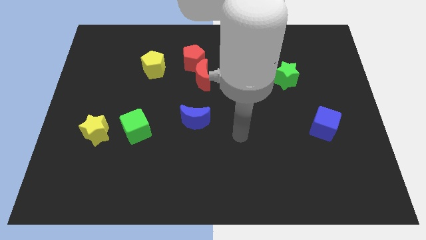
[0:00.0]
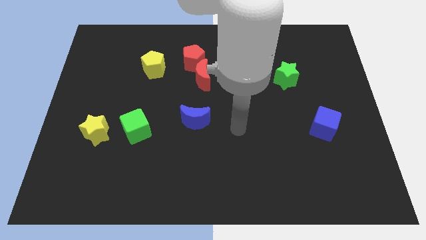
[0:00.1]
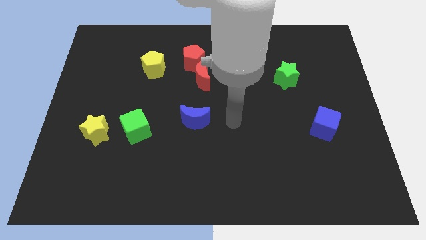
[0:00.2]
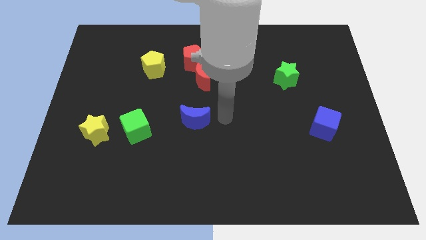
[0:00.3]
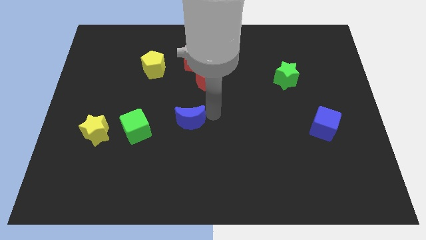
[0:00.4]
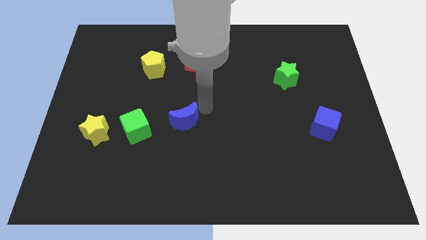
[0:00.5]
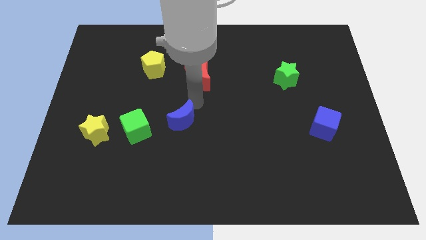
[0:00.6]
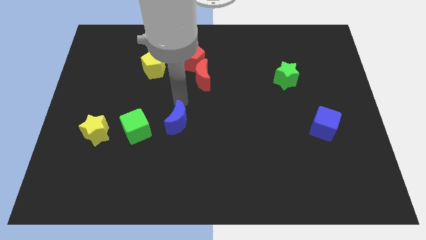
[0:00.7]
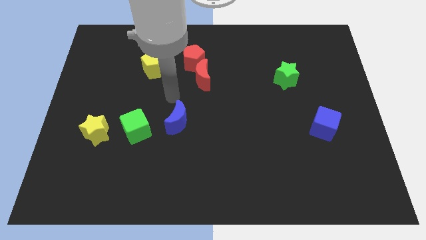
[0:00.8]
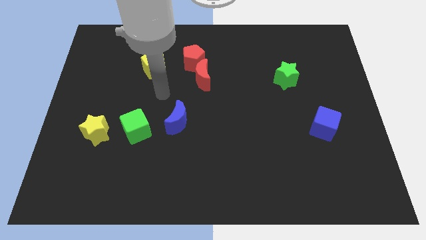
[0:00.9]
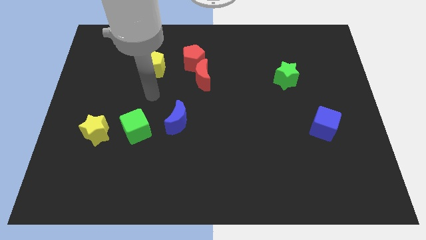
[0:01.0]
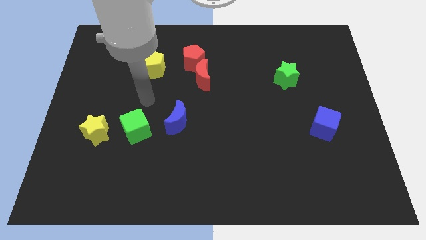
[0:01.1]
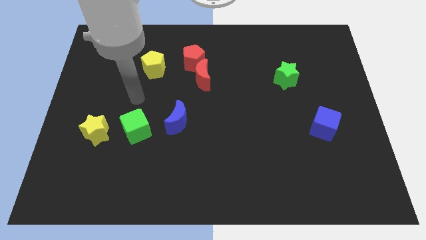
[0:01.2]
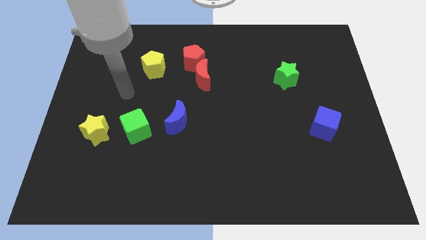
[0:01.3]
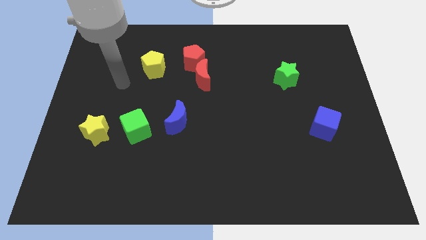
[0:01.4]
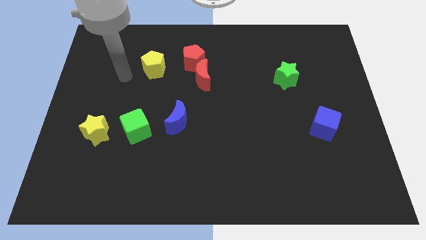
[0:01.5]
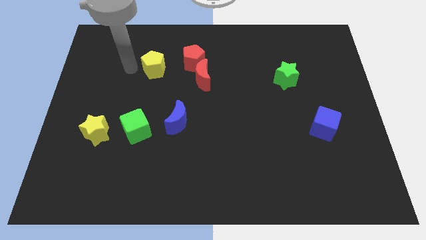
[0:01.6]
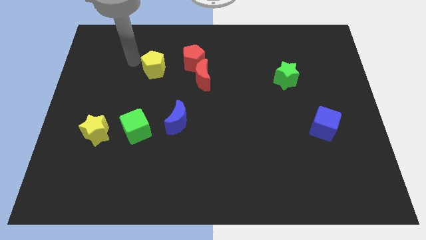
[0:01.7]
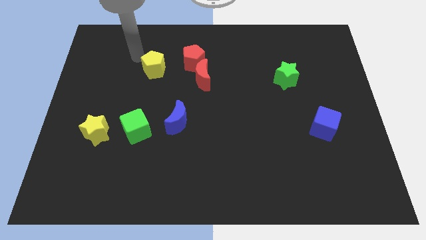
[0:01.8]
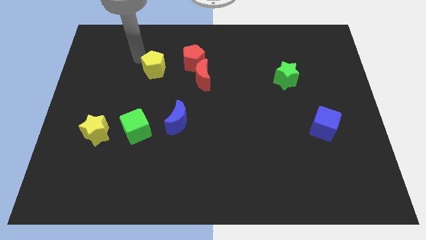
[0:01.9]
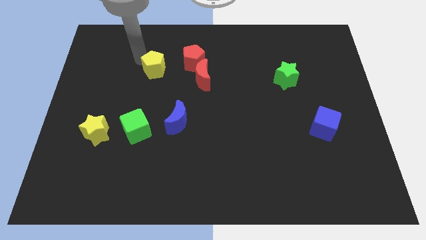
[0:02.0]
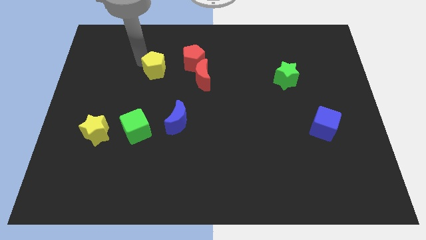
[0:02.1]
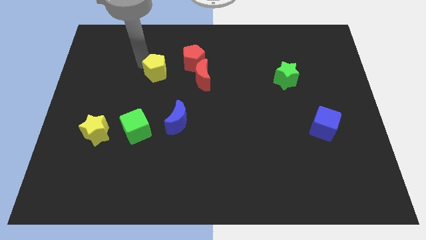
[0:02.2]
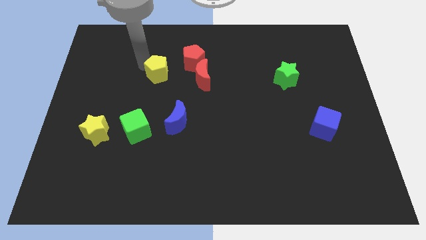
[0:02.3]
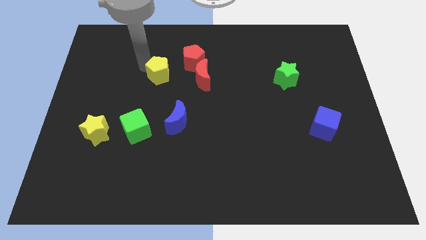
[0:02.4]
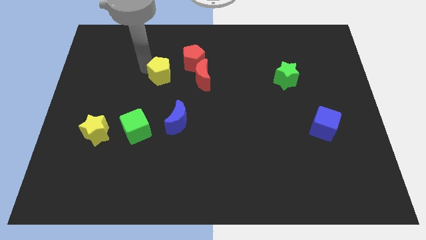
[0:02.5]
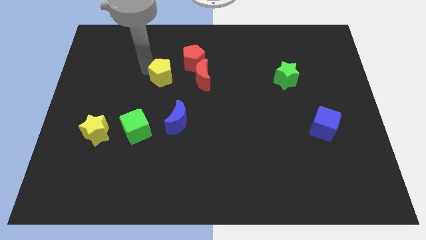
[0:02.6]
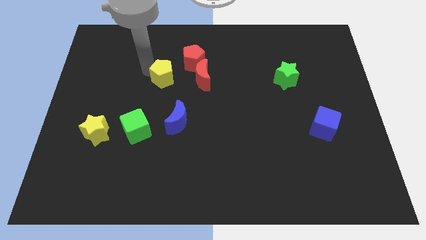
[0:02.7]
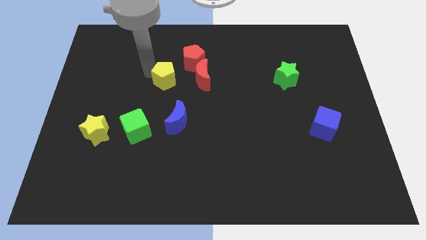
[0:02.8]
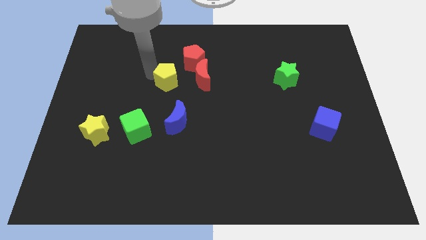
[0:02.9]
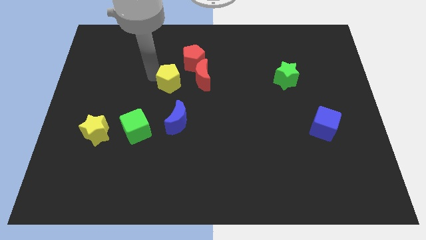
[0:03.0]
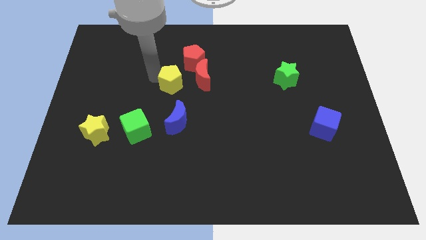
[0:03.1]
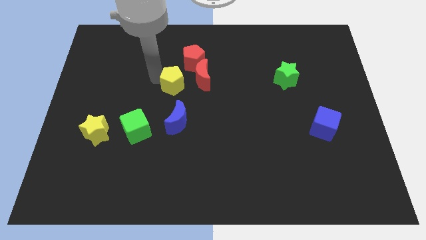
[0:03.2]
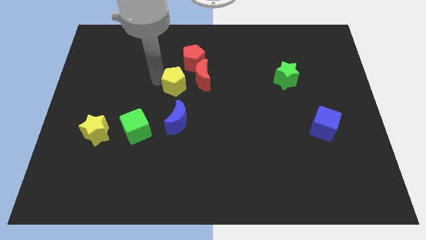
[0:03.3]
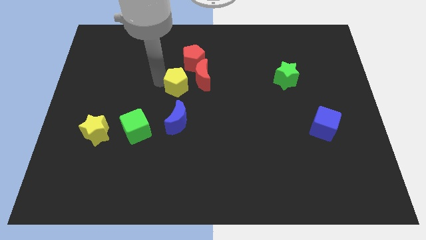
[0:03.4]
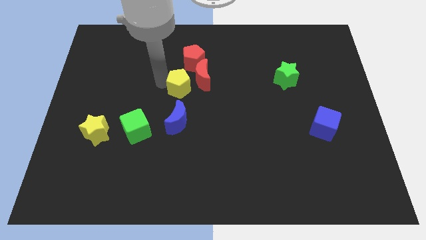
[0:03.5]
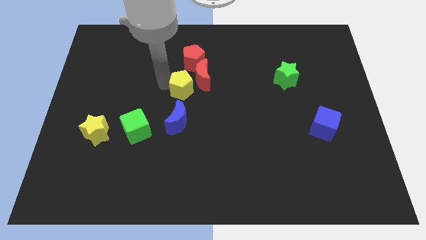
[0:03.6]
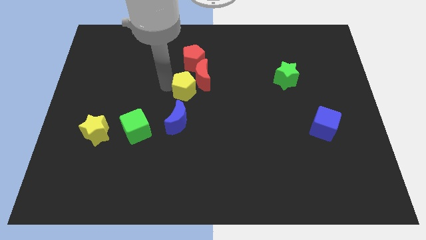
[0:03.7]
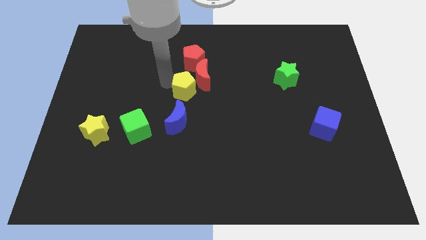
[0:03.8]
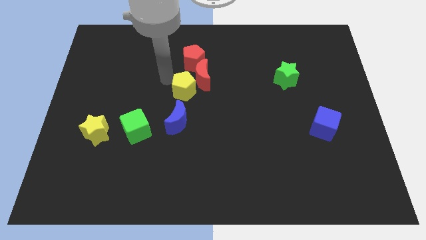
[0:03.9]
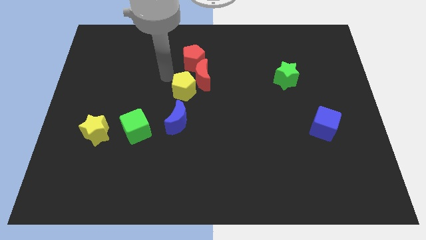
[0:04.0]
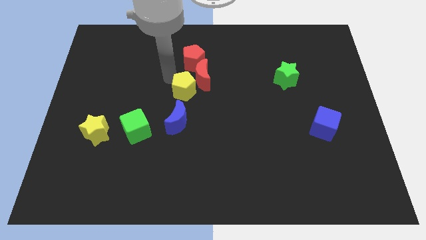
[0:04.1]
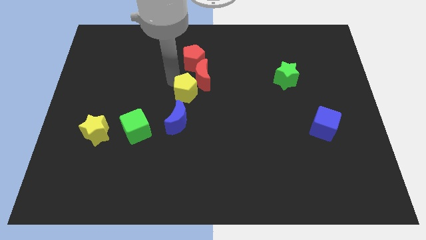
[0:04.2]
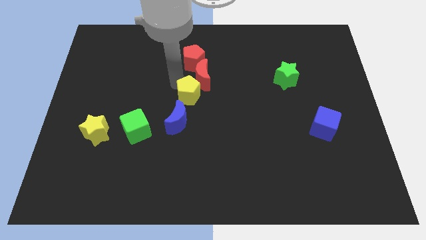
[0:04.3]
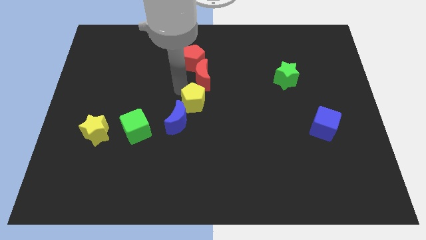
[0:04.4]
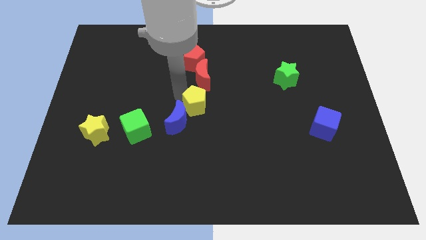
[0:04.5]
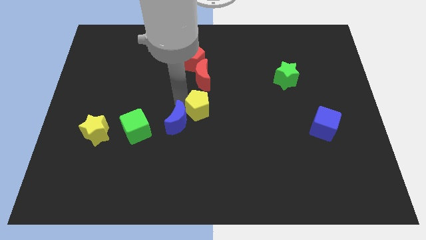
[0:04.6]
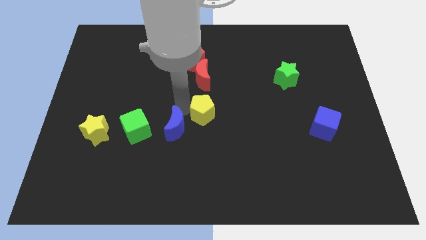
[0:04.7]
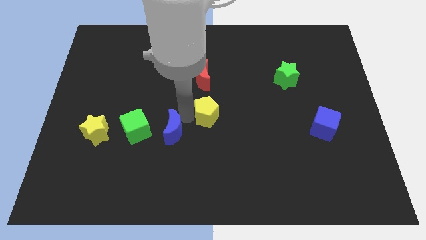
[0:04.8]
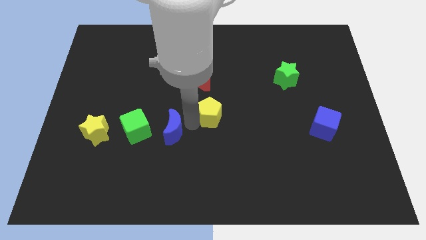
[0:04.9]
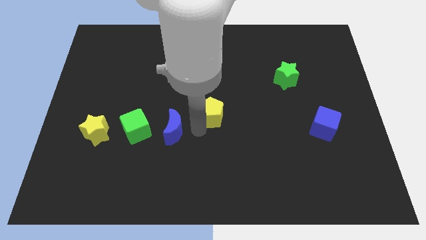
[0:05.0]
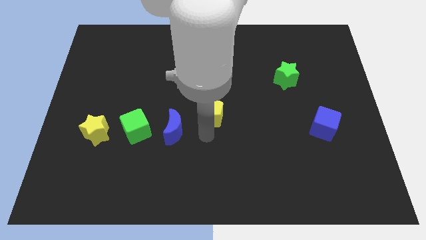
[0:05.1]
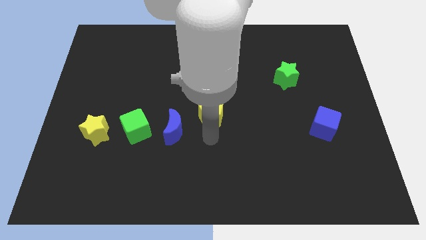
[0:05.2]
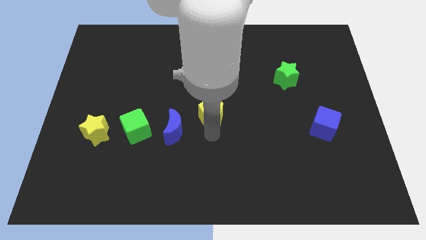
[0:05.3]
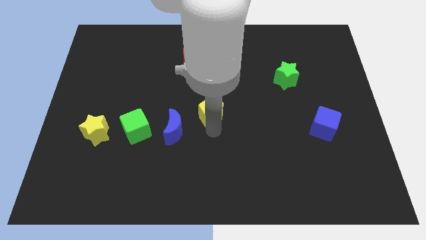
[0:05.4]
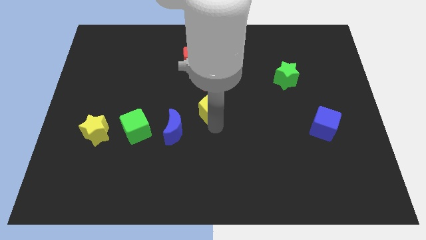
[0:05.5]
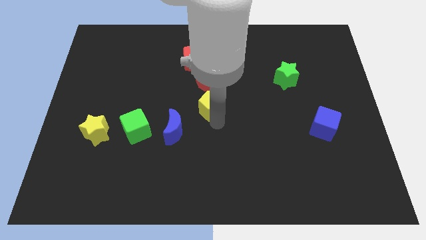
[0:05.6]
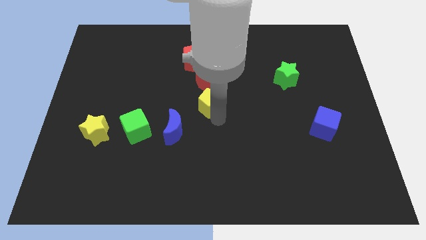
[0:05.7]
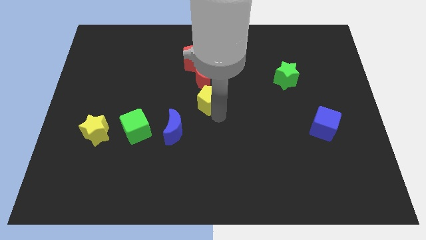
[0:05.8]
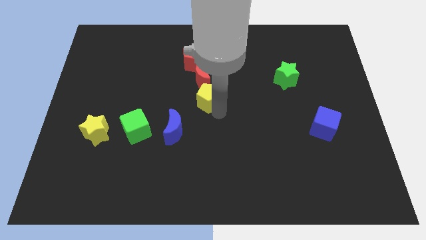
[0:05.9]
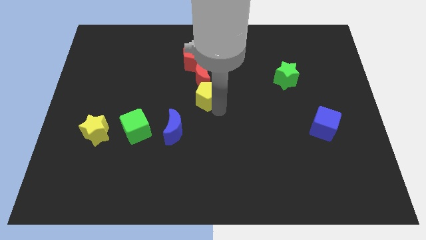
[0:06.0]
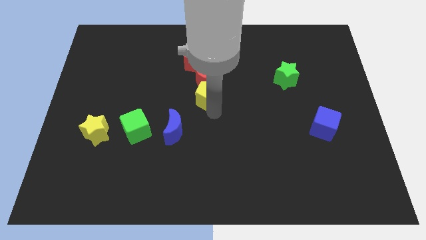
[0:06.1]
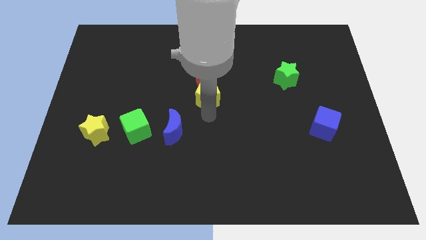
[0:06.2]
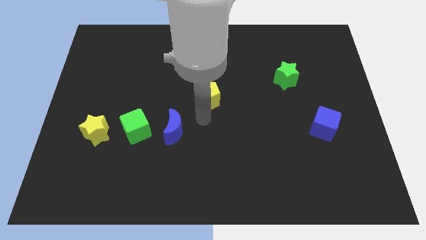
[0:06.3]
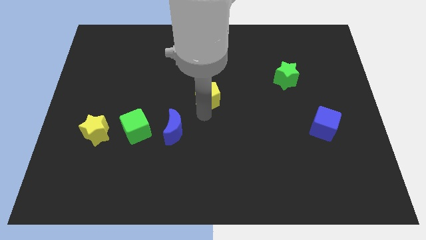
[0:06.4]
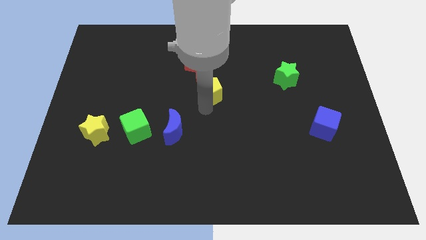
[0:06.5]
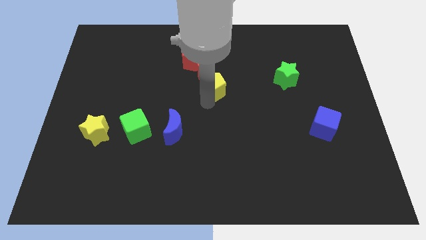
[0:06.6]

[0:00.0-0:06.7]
put the yellow pentagon to the bottom right side of the red pentagon

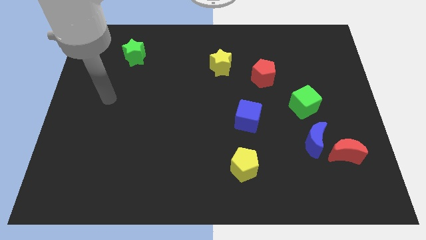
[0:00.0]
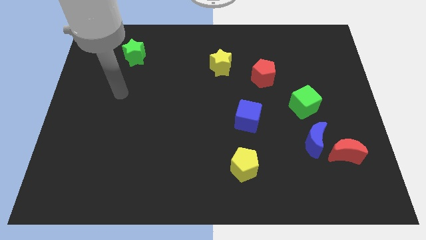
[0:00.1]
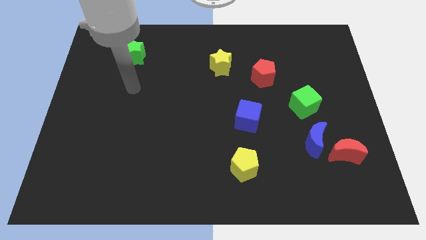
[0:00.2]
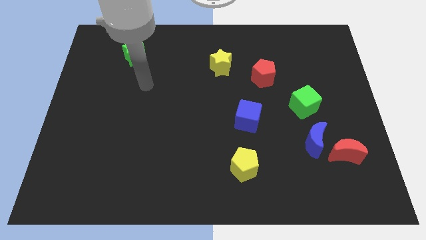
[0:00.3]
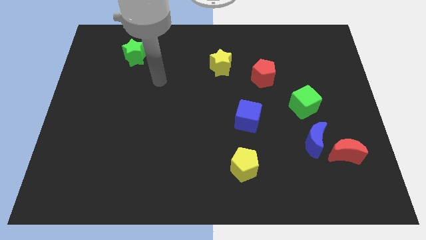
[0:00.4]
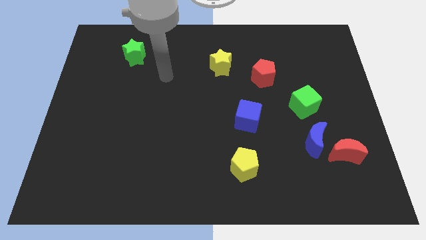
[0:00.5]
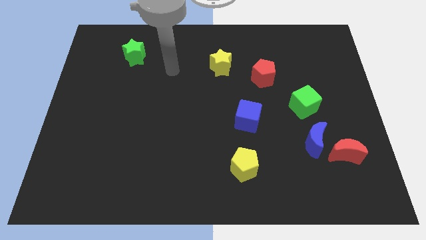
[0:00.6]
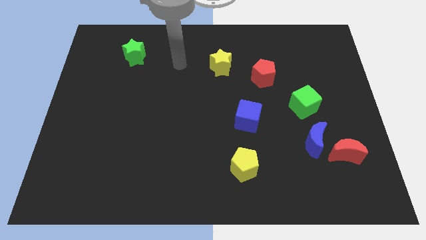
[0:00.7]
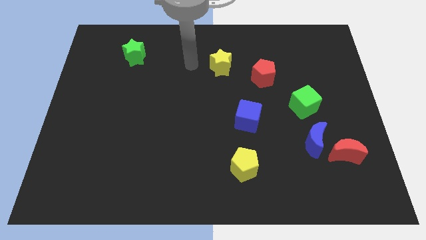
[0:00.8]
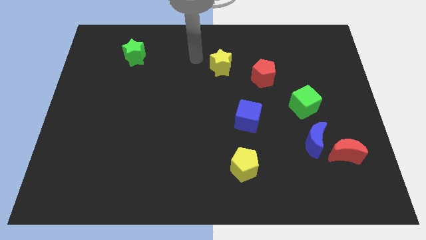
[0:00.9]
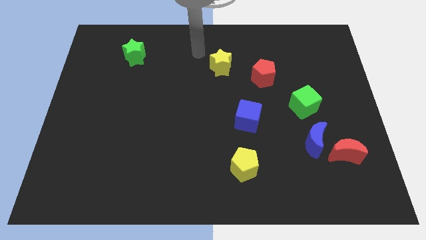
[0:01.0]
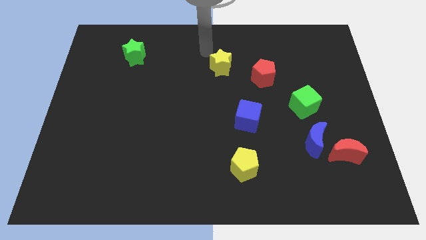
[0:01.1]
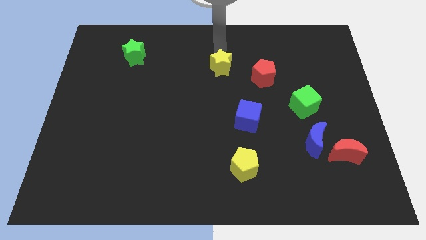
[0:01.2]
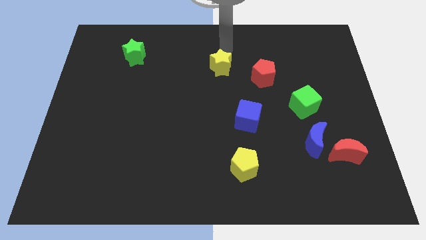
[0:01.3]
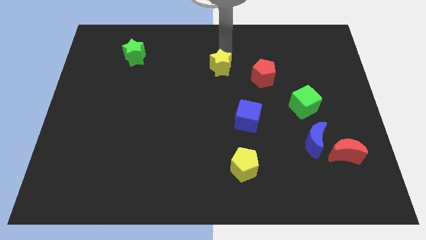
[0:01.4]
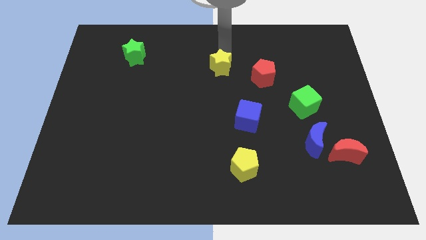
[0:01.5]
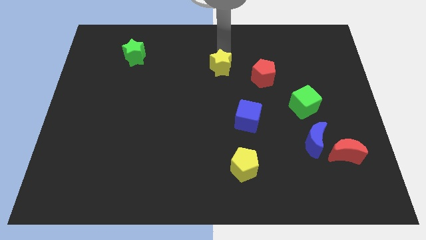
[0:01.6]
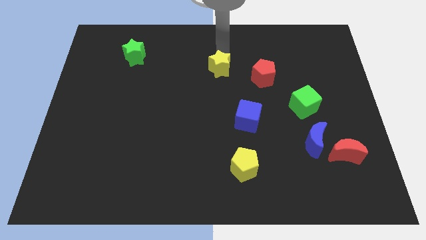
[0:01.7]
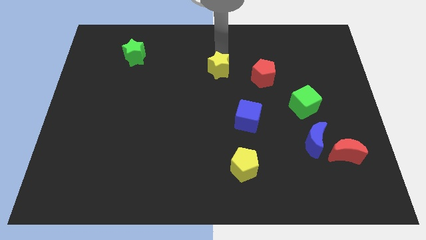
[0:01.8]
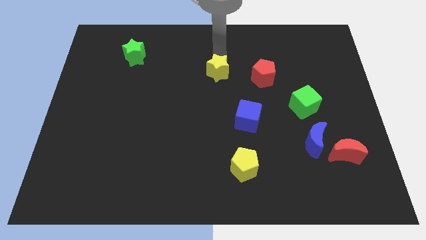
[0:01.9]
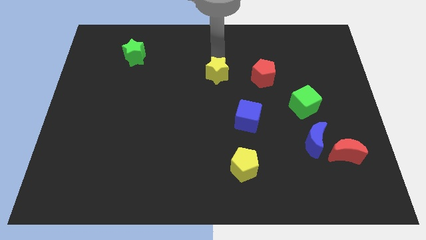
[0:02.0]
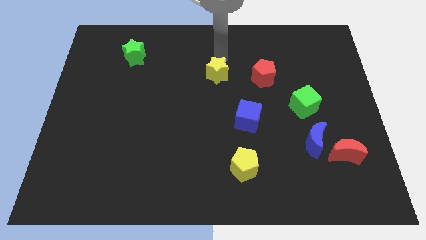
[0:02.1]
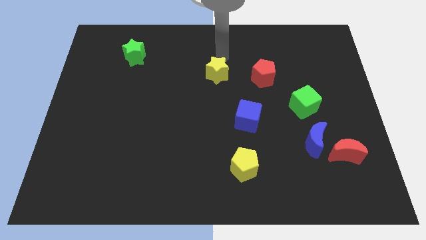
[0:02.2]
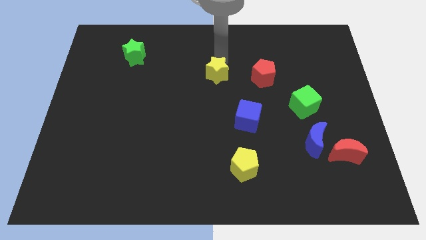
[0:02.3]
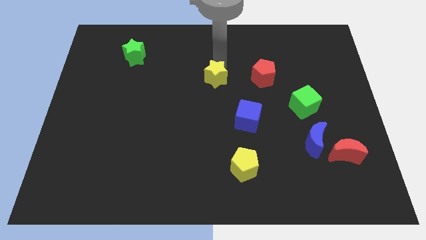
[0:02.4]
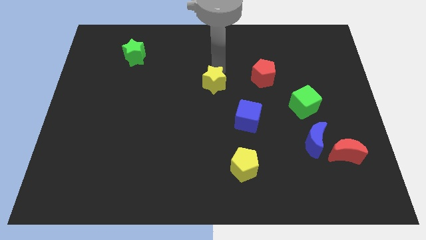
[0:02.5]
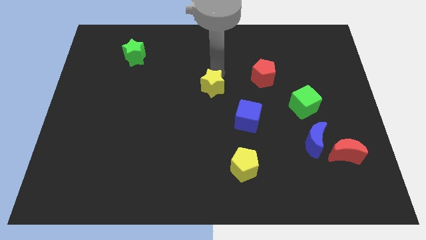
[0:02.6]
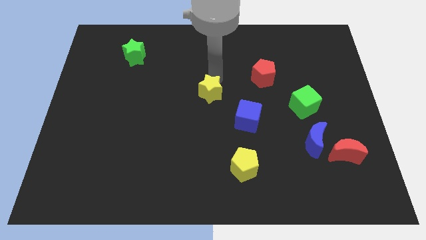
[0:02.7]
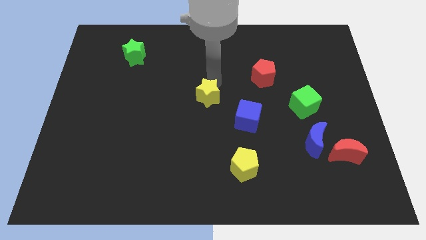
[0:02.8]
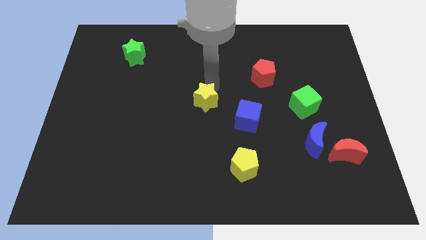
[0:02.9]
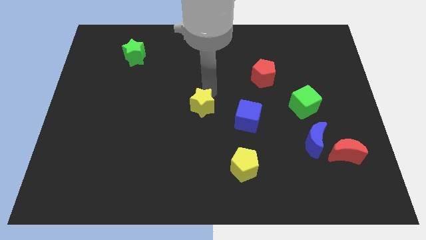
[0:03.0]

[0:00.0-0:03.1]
move the yellow star just left of the blue cube
